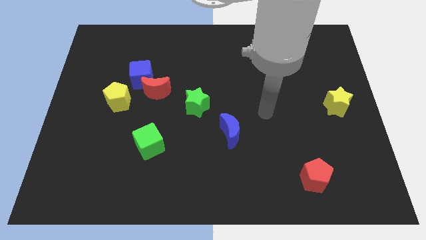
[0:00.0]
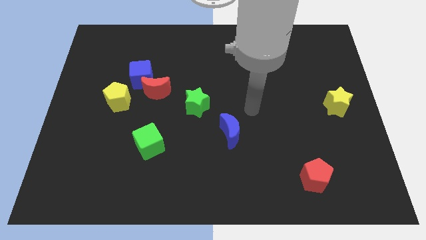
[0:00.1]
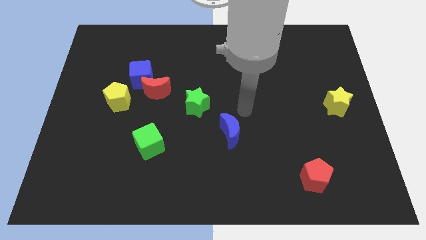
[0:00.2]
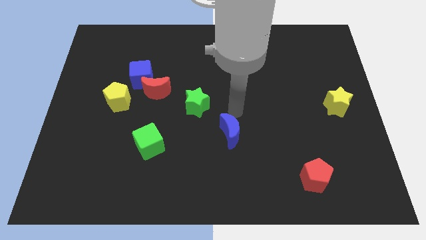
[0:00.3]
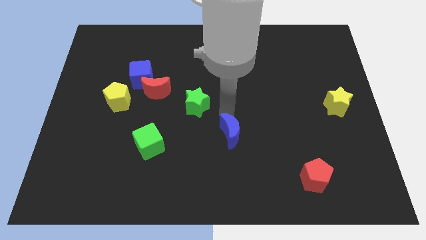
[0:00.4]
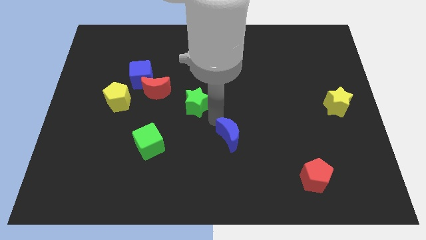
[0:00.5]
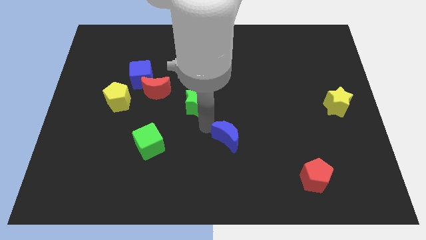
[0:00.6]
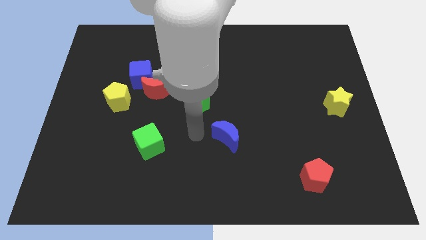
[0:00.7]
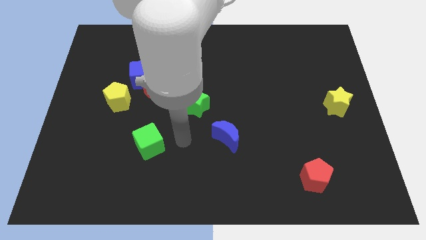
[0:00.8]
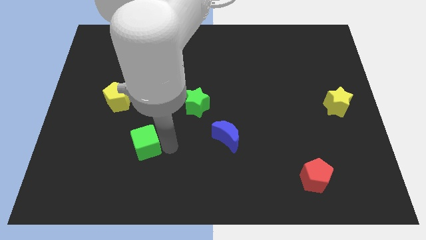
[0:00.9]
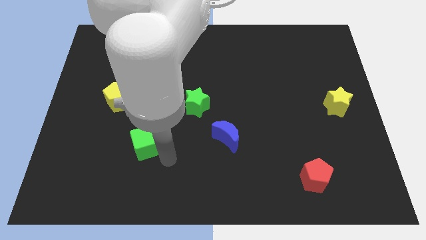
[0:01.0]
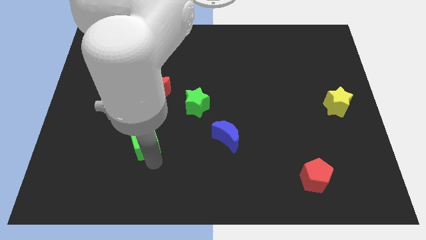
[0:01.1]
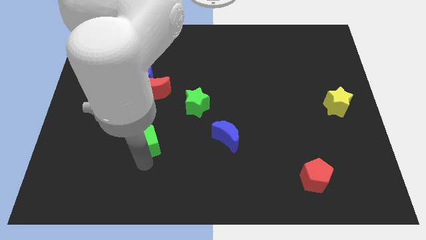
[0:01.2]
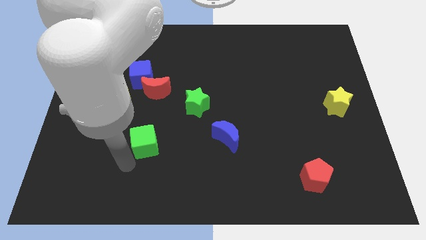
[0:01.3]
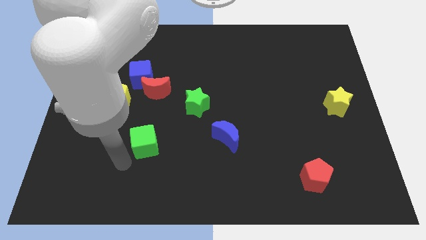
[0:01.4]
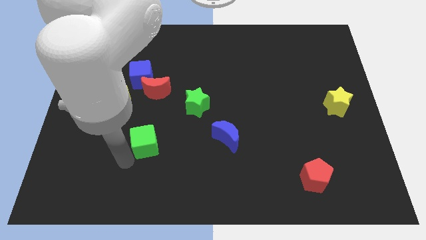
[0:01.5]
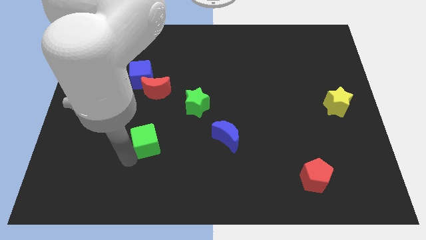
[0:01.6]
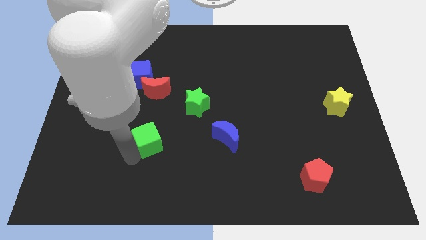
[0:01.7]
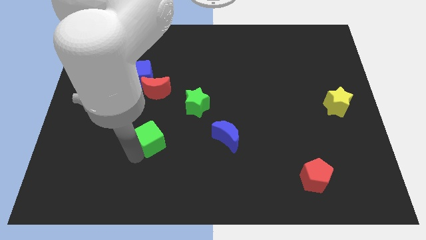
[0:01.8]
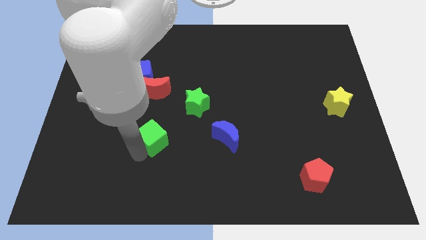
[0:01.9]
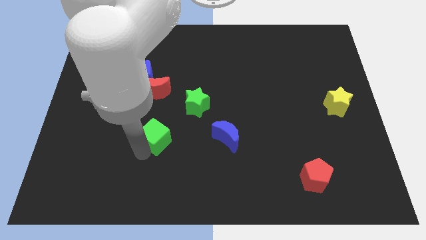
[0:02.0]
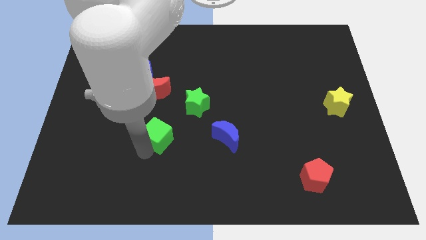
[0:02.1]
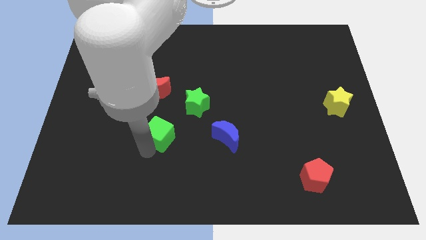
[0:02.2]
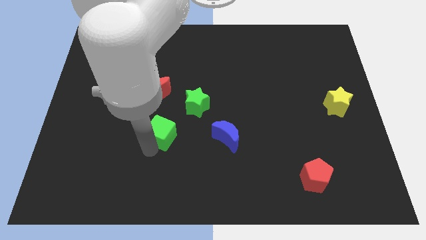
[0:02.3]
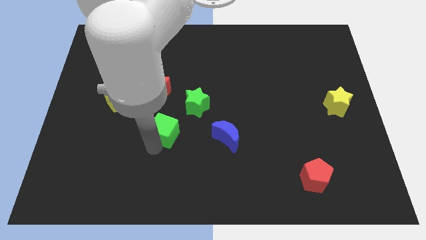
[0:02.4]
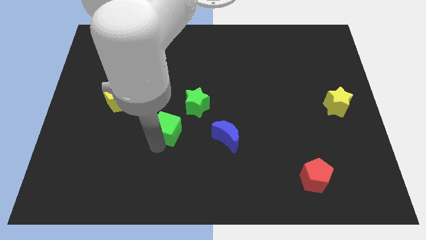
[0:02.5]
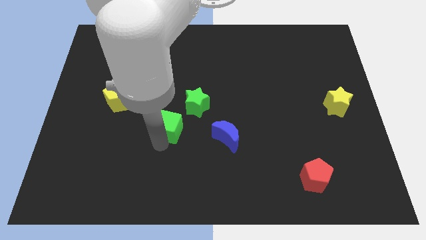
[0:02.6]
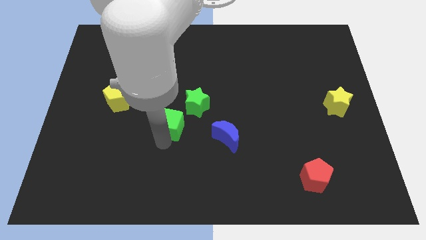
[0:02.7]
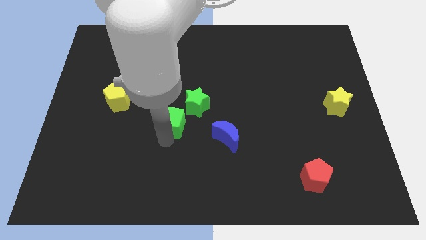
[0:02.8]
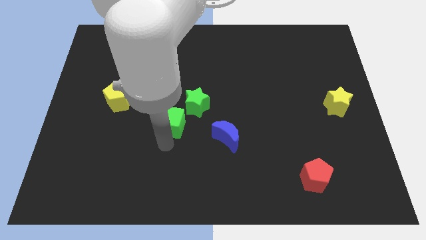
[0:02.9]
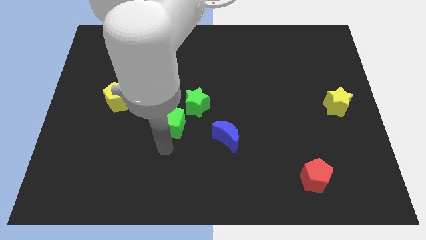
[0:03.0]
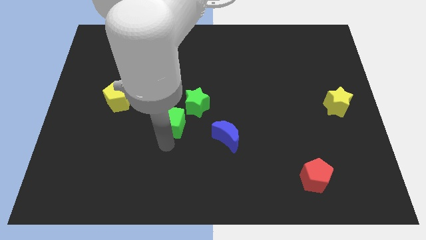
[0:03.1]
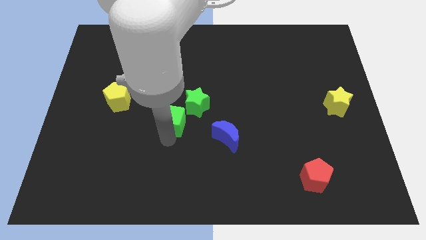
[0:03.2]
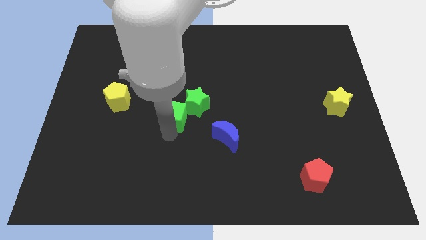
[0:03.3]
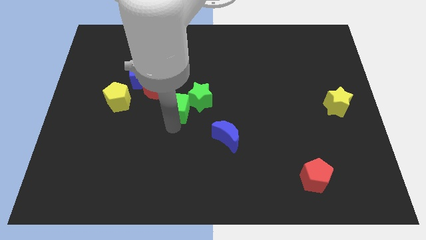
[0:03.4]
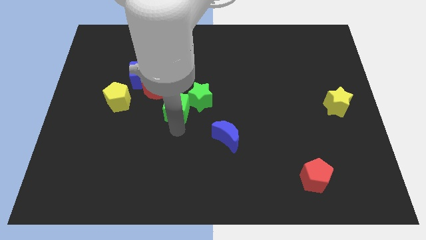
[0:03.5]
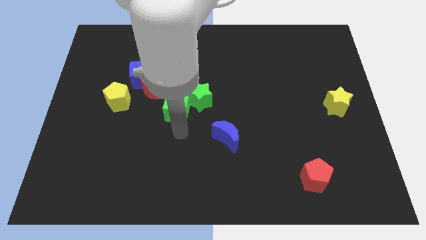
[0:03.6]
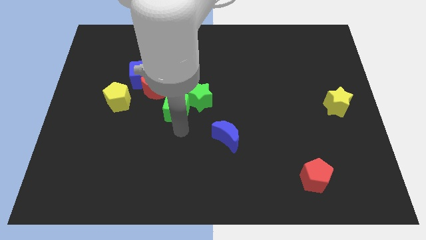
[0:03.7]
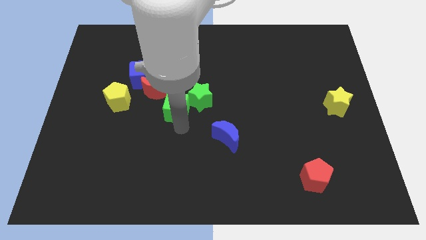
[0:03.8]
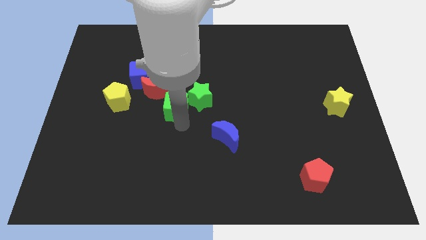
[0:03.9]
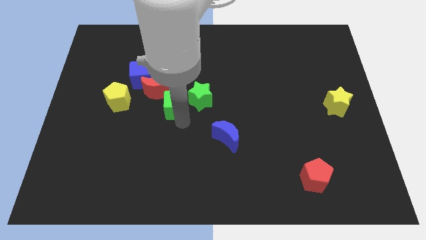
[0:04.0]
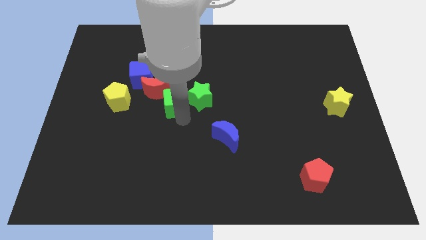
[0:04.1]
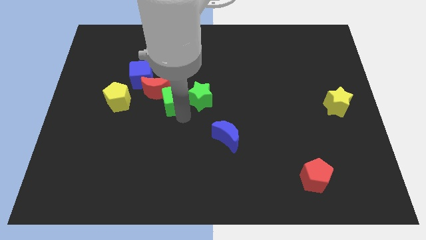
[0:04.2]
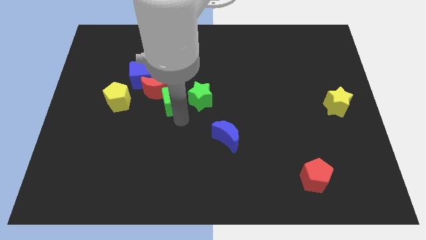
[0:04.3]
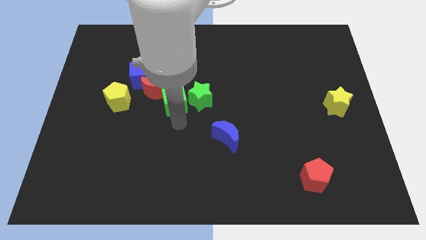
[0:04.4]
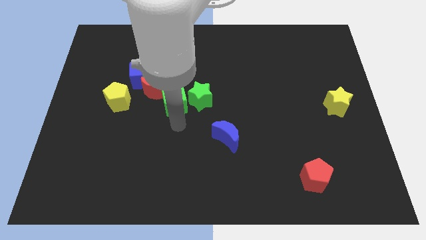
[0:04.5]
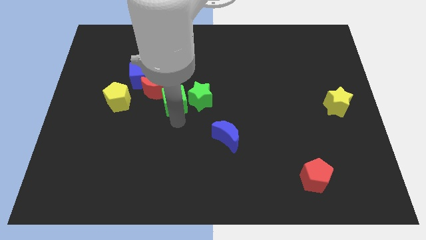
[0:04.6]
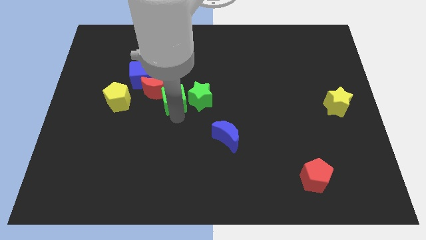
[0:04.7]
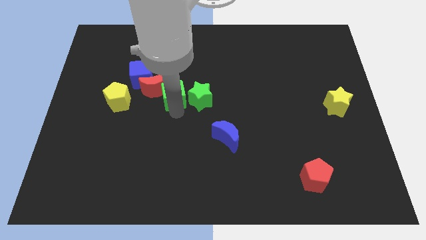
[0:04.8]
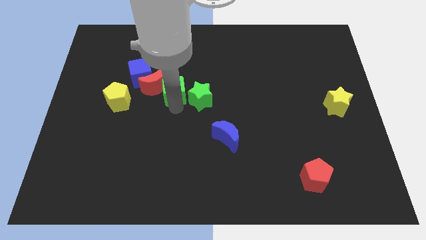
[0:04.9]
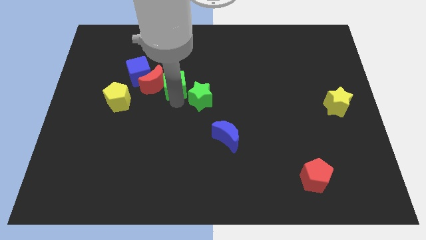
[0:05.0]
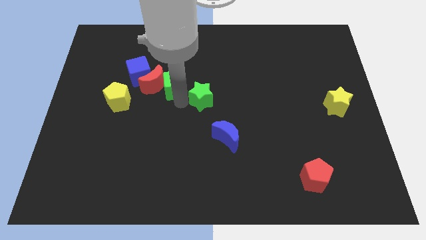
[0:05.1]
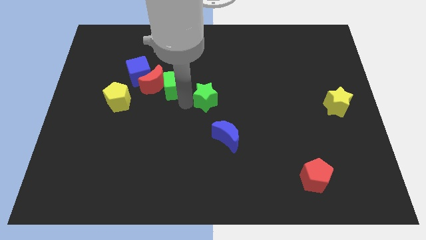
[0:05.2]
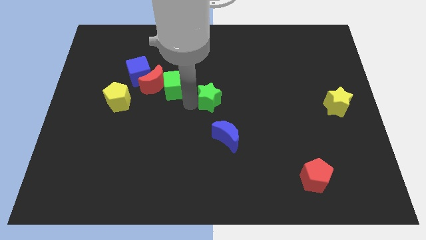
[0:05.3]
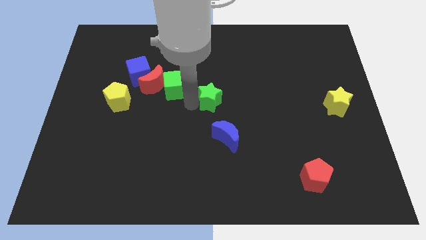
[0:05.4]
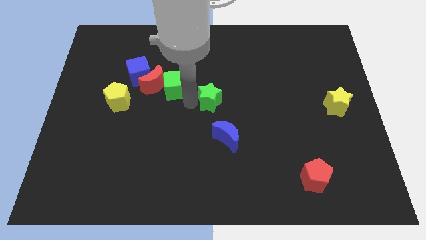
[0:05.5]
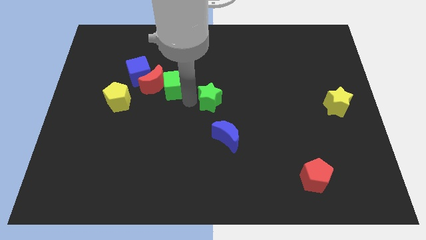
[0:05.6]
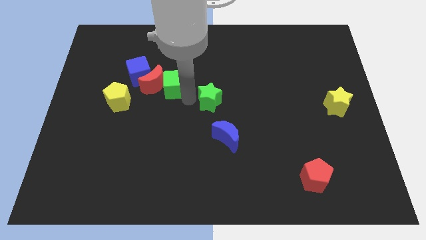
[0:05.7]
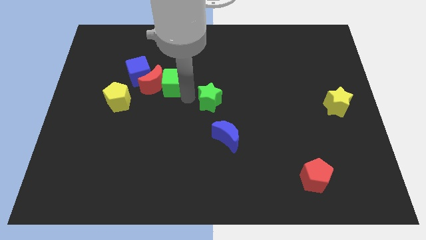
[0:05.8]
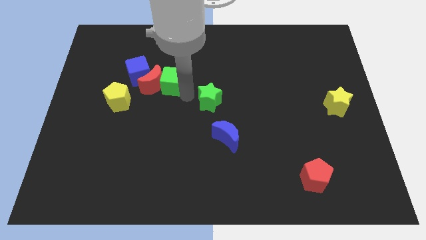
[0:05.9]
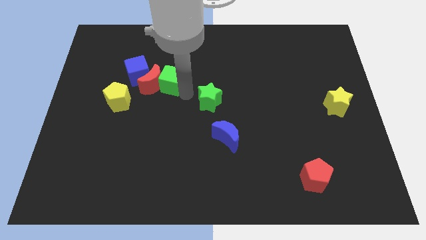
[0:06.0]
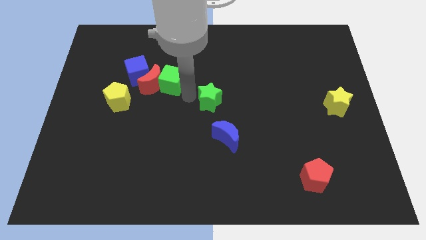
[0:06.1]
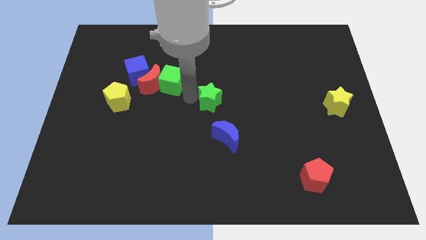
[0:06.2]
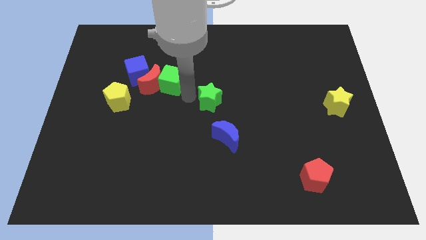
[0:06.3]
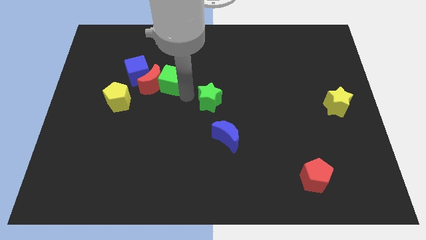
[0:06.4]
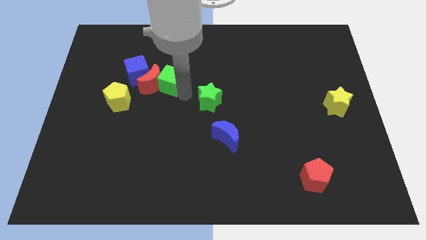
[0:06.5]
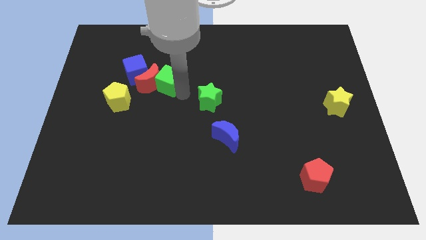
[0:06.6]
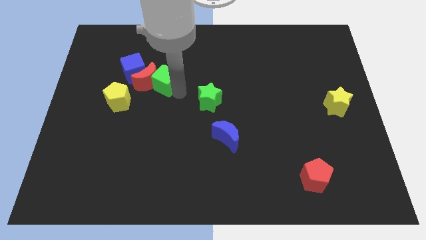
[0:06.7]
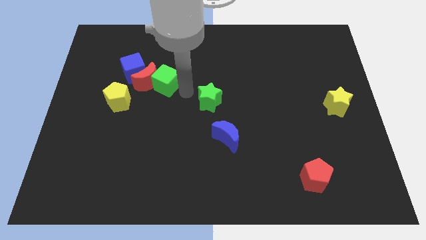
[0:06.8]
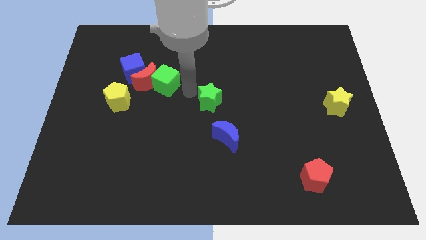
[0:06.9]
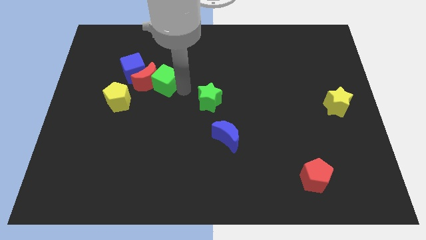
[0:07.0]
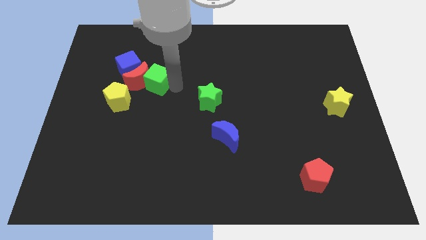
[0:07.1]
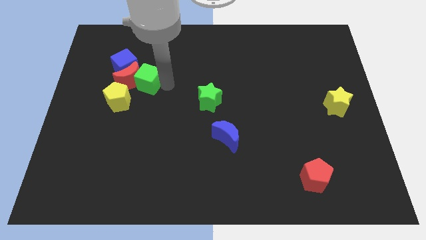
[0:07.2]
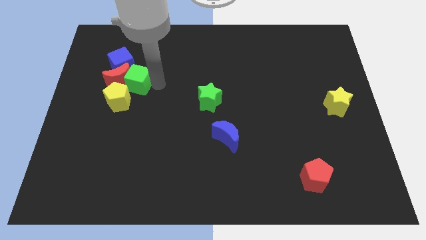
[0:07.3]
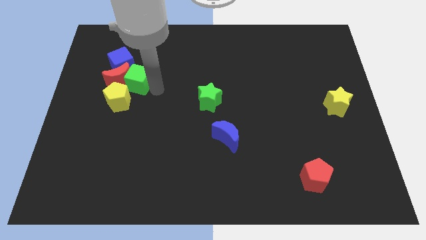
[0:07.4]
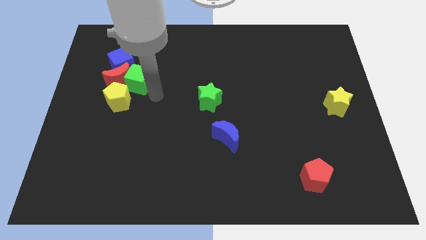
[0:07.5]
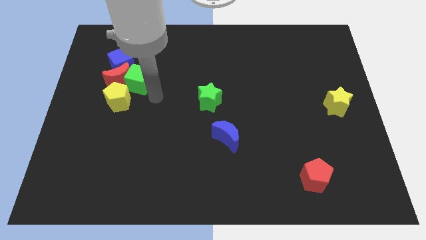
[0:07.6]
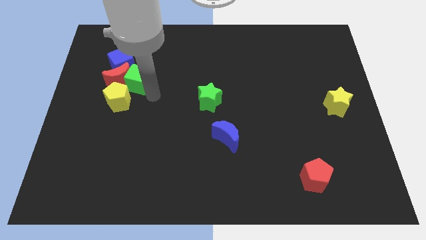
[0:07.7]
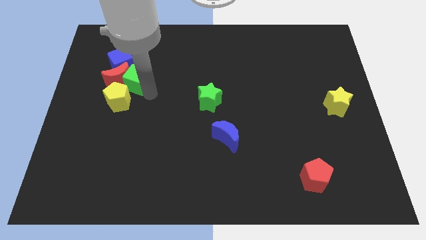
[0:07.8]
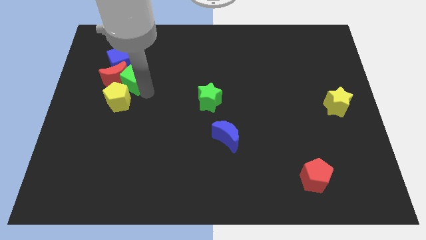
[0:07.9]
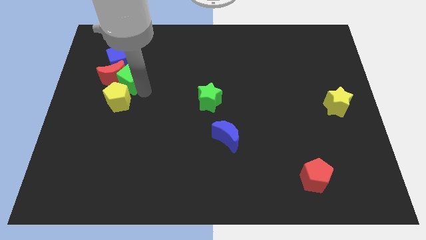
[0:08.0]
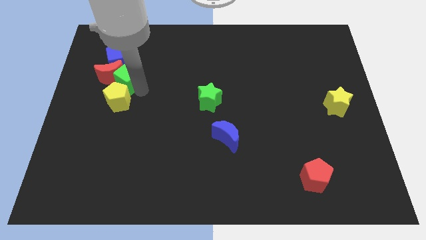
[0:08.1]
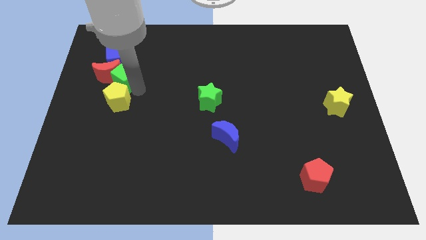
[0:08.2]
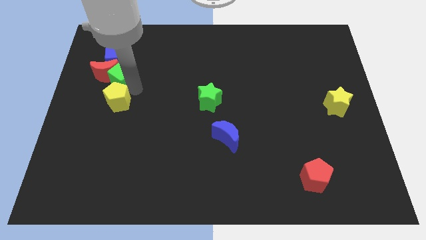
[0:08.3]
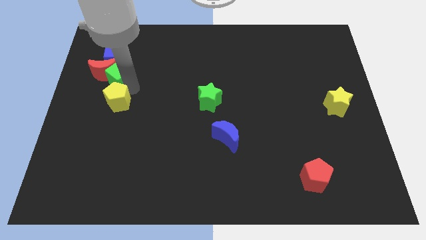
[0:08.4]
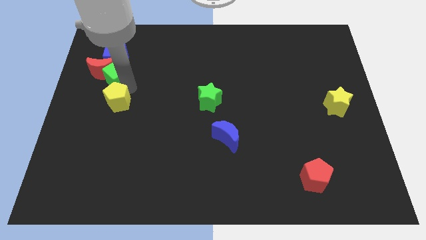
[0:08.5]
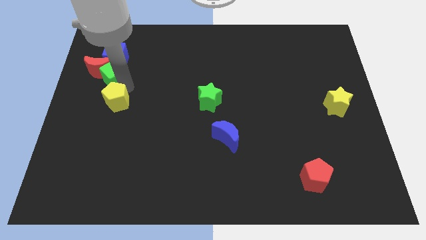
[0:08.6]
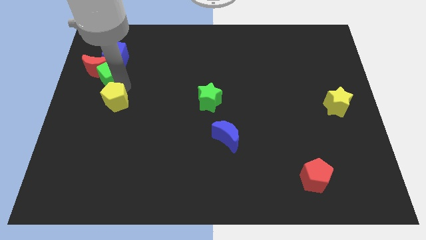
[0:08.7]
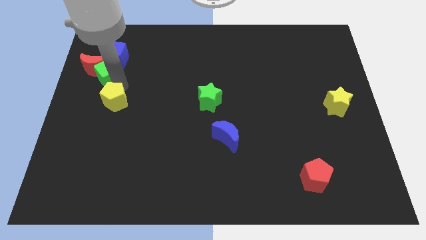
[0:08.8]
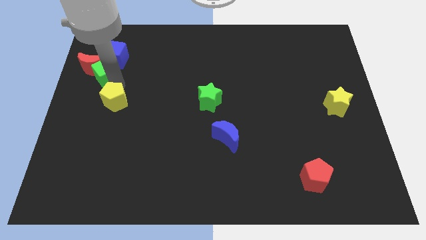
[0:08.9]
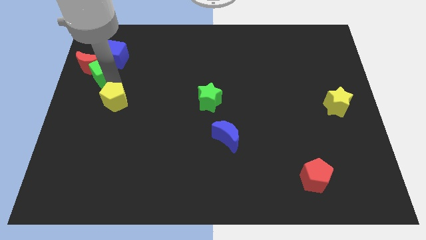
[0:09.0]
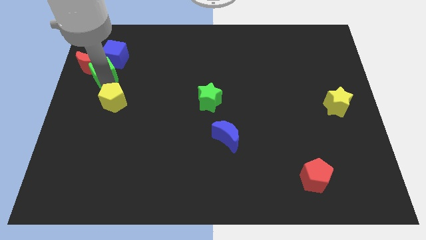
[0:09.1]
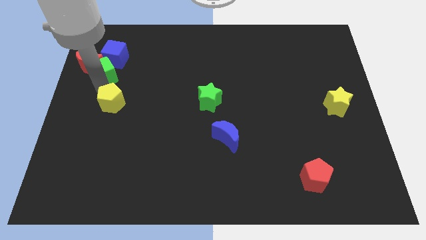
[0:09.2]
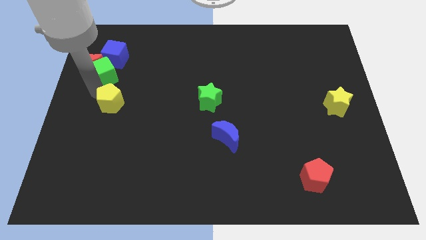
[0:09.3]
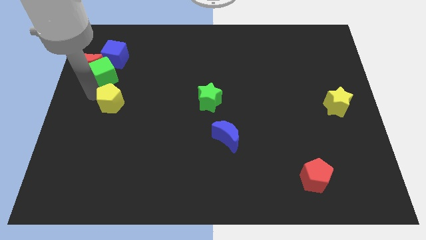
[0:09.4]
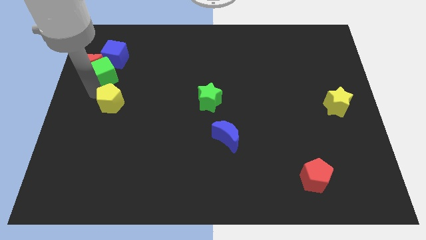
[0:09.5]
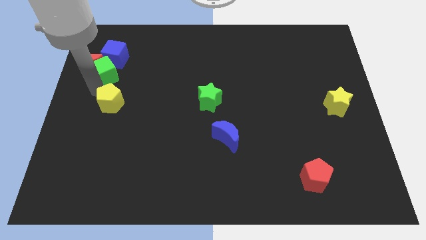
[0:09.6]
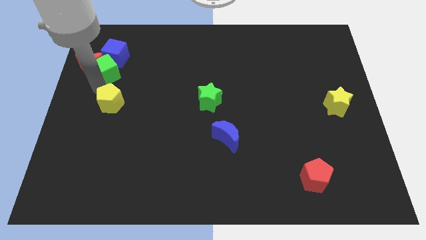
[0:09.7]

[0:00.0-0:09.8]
push the green cube to the blue cube
